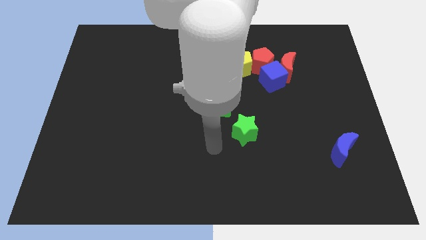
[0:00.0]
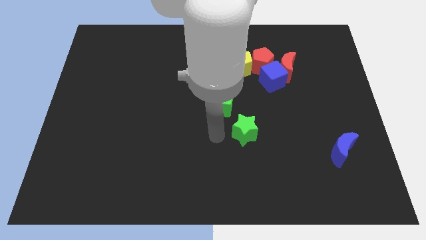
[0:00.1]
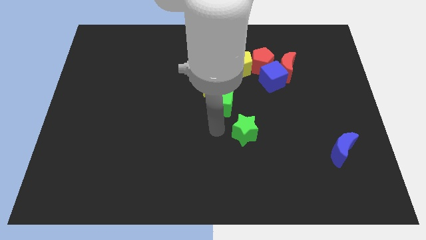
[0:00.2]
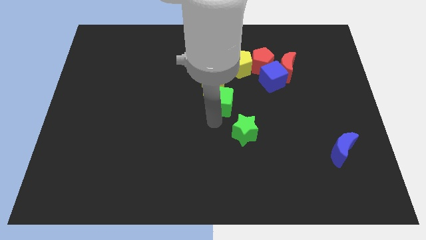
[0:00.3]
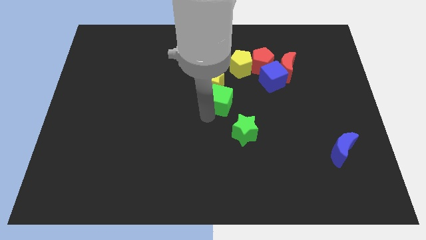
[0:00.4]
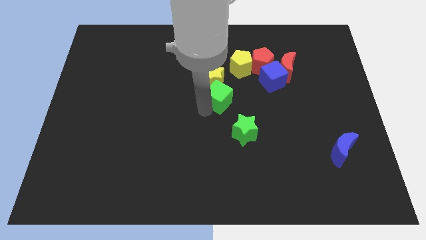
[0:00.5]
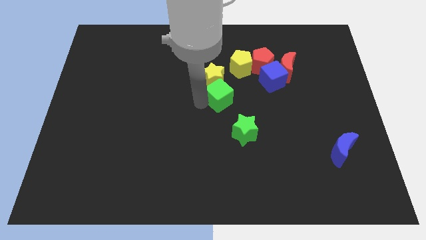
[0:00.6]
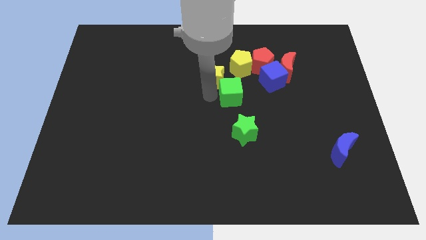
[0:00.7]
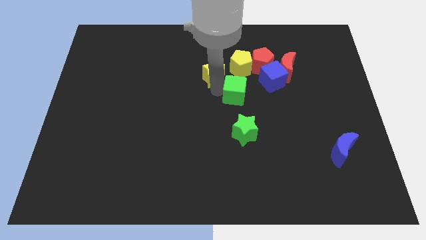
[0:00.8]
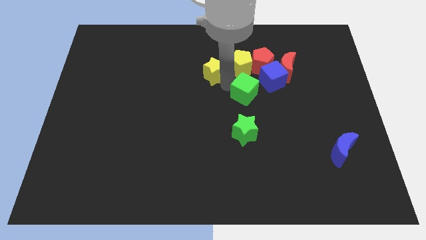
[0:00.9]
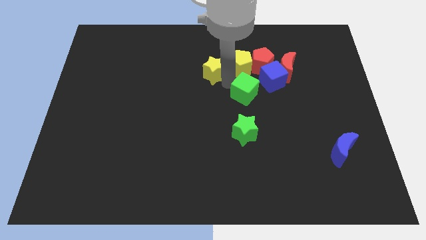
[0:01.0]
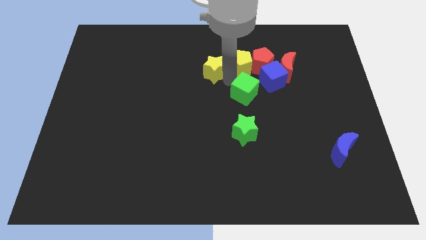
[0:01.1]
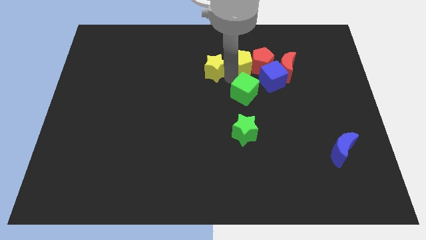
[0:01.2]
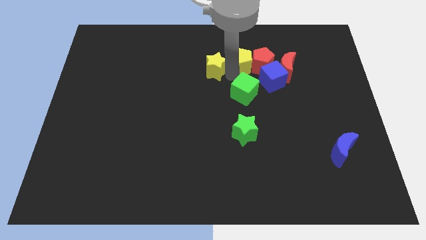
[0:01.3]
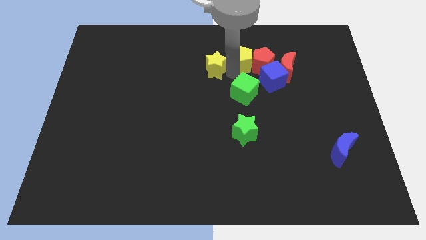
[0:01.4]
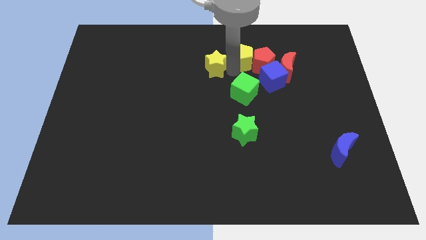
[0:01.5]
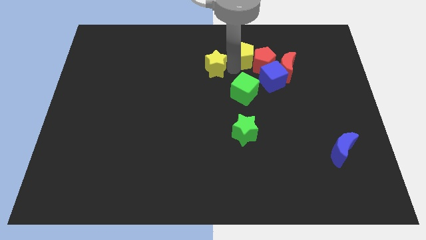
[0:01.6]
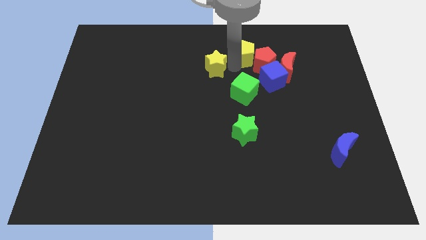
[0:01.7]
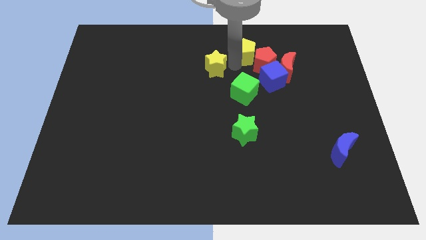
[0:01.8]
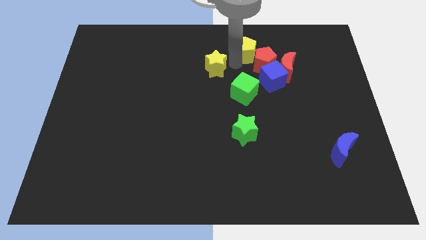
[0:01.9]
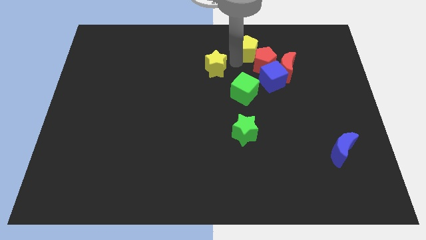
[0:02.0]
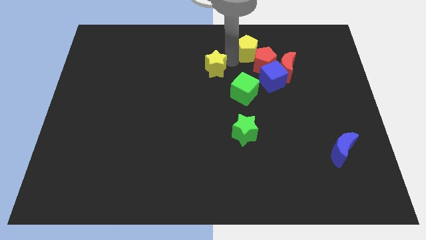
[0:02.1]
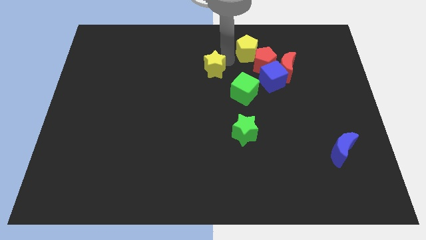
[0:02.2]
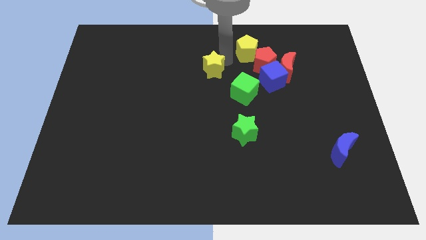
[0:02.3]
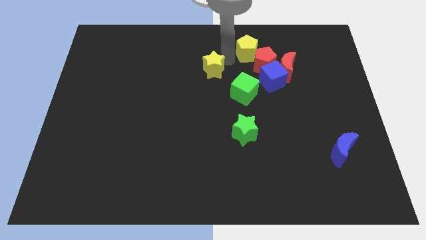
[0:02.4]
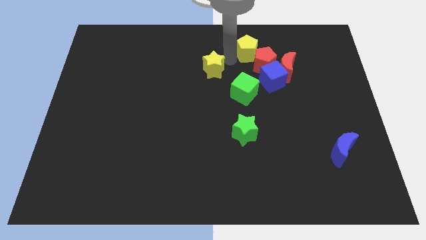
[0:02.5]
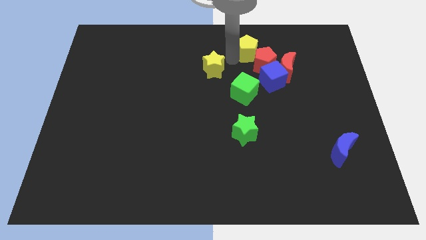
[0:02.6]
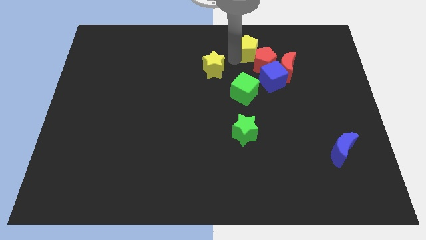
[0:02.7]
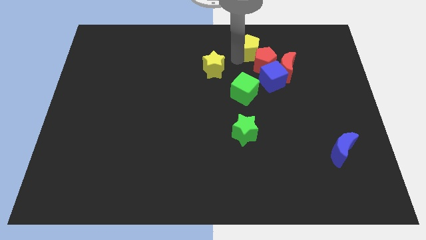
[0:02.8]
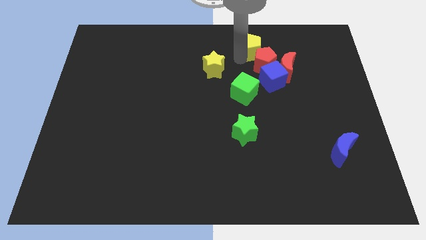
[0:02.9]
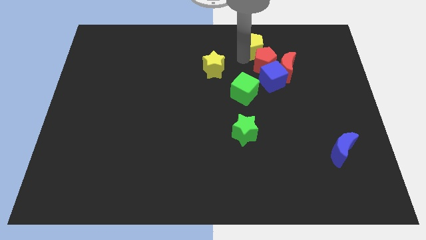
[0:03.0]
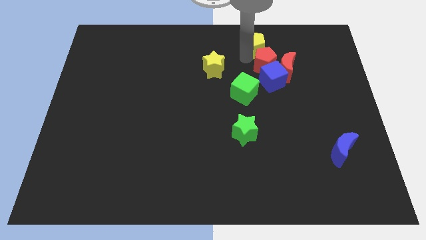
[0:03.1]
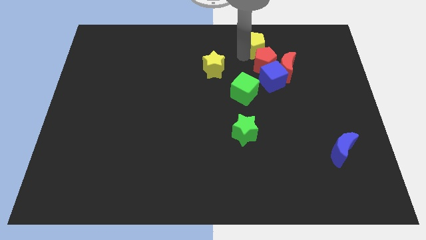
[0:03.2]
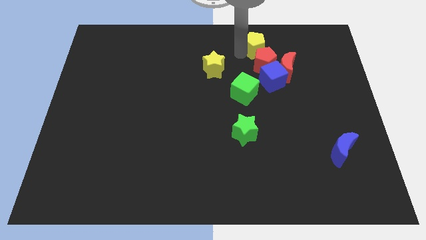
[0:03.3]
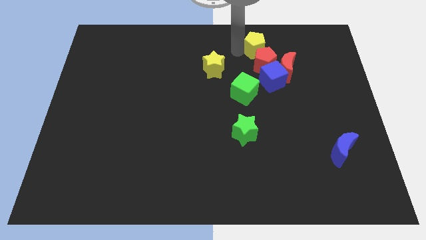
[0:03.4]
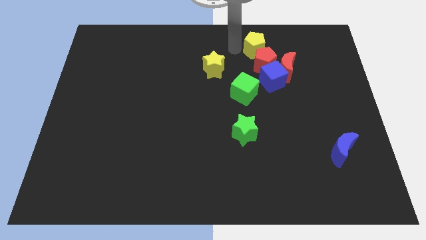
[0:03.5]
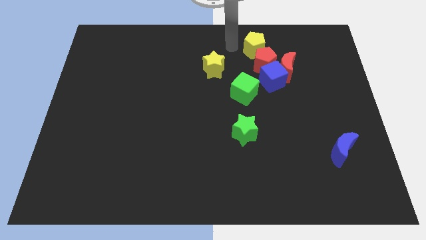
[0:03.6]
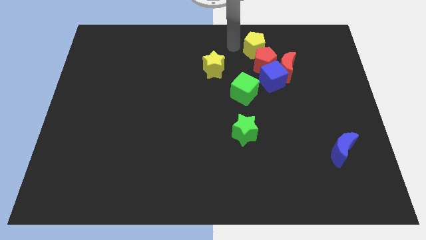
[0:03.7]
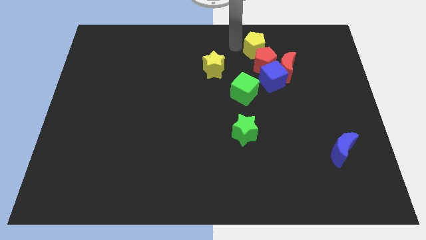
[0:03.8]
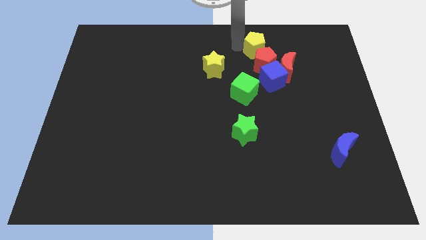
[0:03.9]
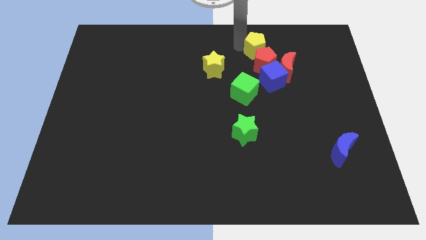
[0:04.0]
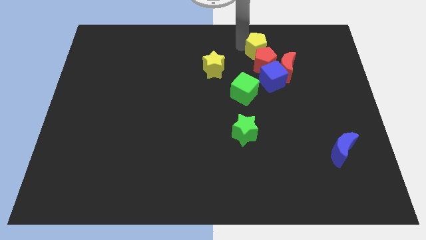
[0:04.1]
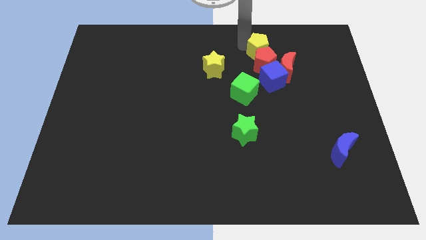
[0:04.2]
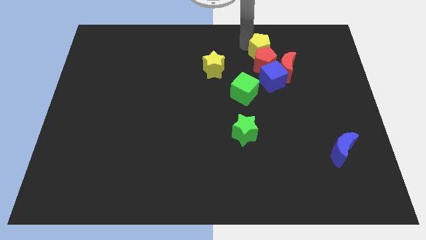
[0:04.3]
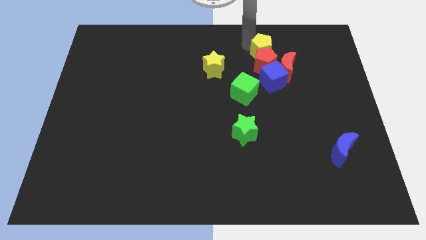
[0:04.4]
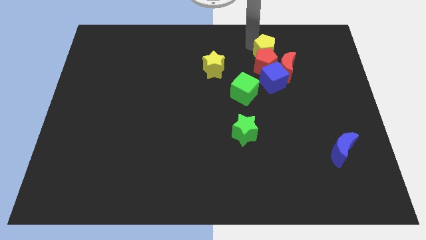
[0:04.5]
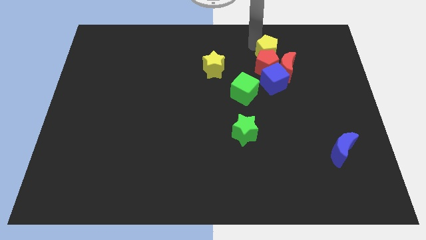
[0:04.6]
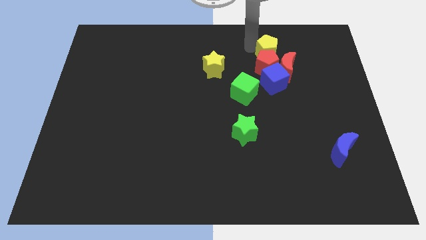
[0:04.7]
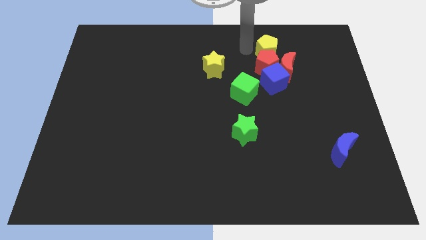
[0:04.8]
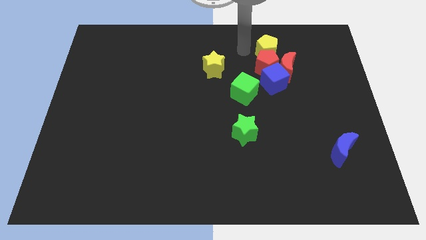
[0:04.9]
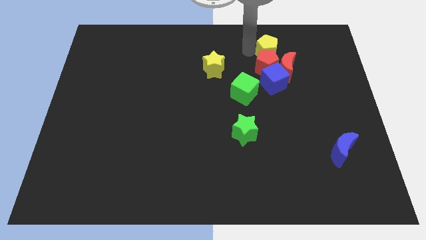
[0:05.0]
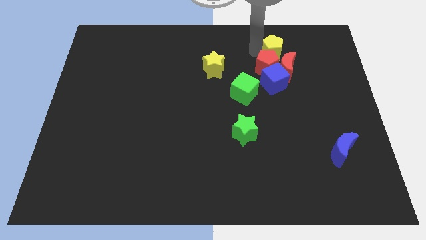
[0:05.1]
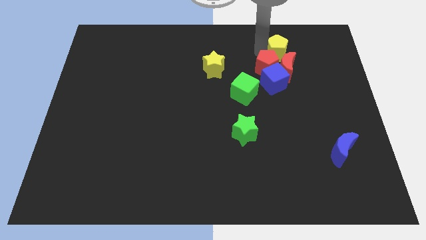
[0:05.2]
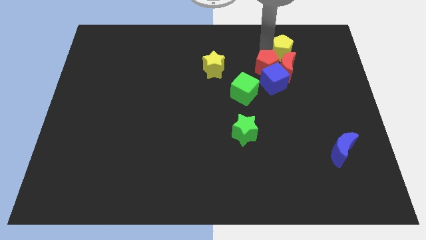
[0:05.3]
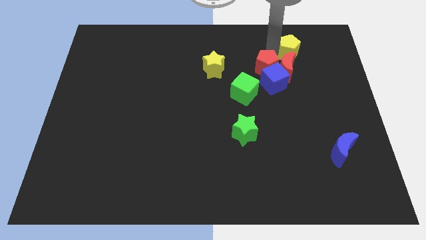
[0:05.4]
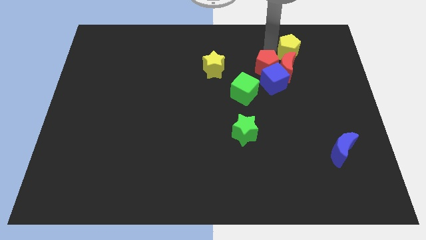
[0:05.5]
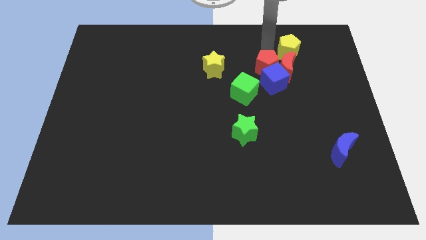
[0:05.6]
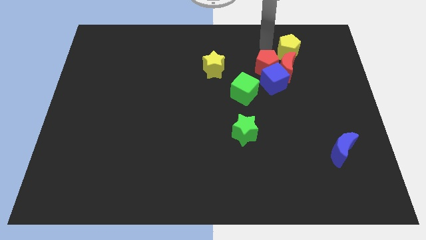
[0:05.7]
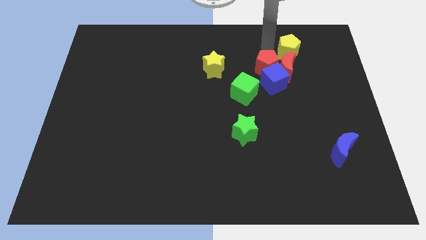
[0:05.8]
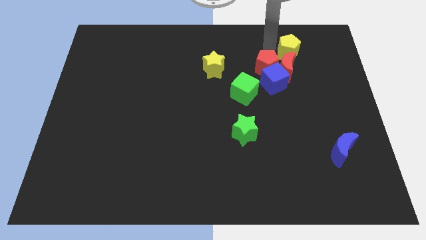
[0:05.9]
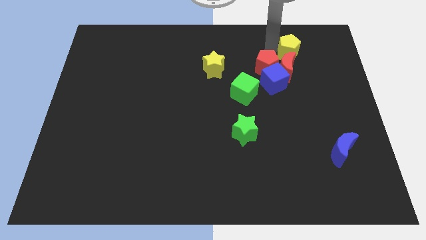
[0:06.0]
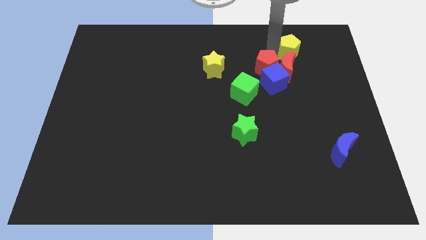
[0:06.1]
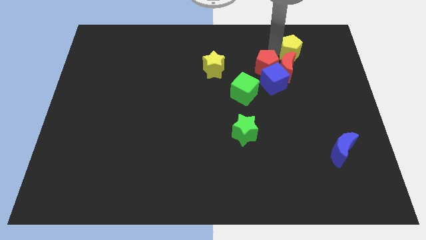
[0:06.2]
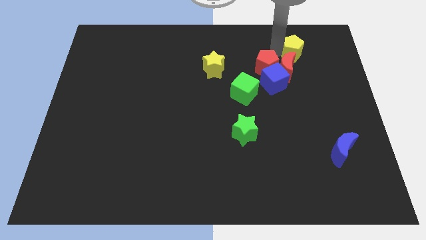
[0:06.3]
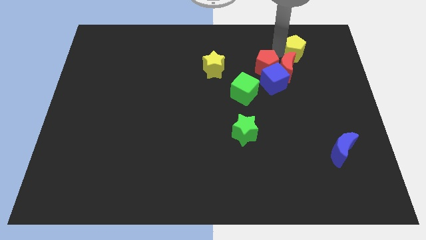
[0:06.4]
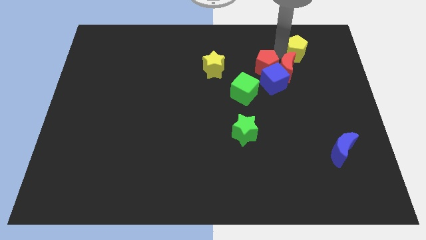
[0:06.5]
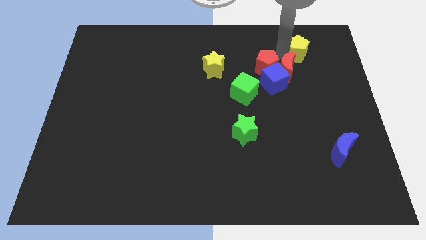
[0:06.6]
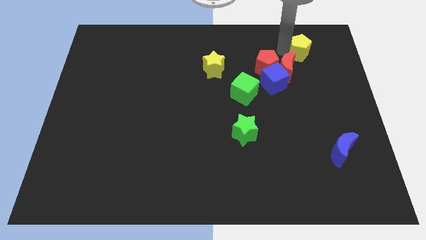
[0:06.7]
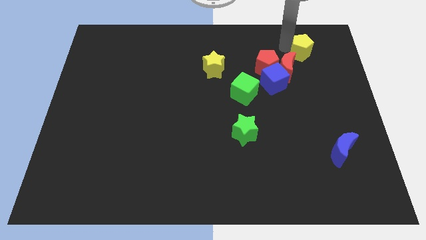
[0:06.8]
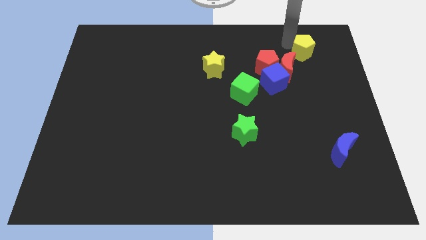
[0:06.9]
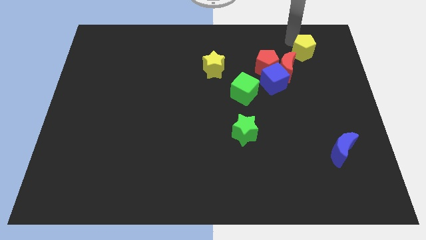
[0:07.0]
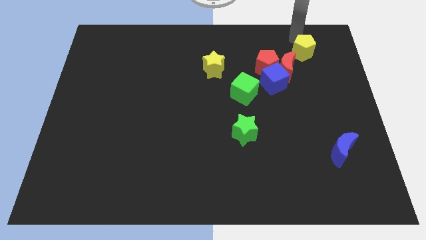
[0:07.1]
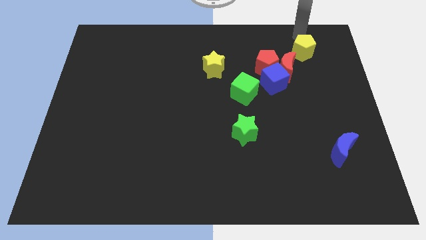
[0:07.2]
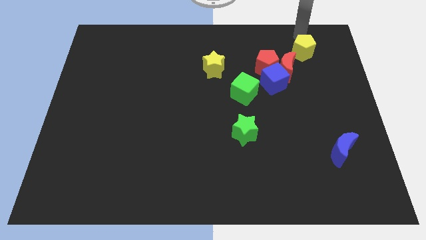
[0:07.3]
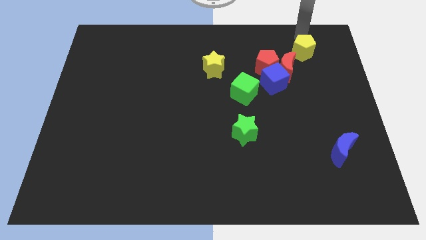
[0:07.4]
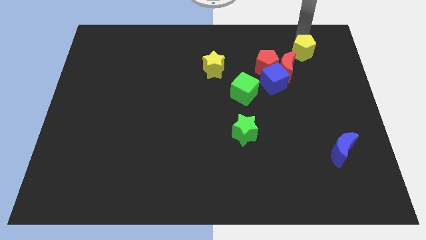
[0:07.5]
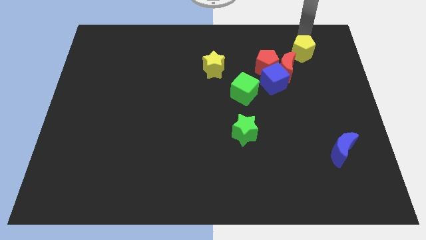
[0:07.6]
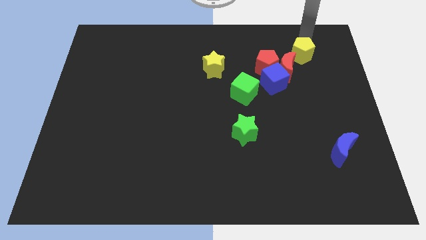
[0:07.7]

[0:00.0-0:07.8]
push the yellow pentagon right of the red pentagon
